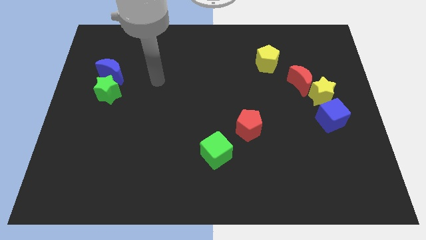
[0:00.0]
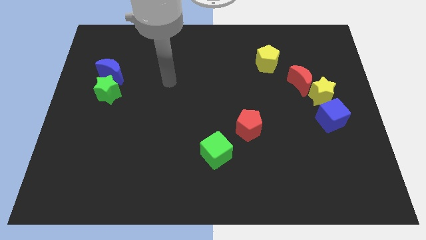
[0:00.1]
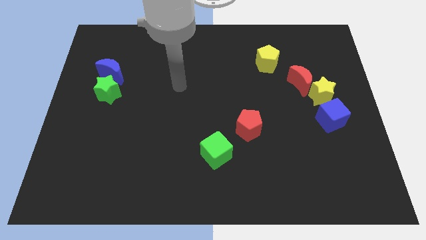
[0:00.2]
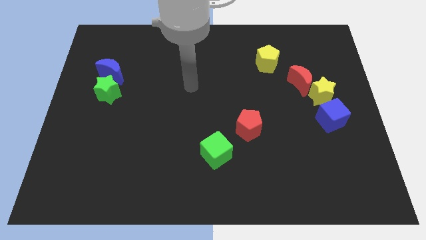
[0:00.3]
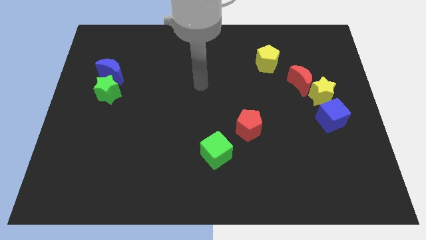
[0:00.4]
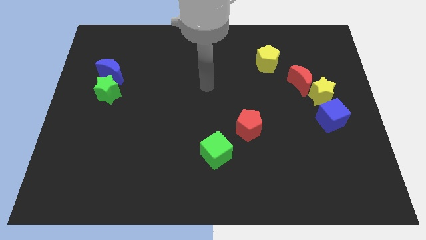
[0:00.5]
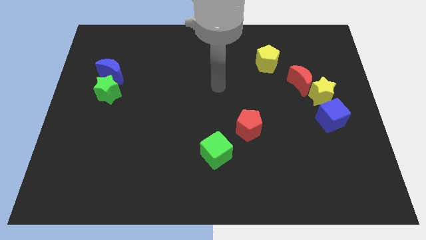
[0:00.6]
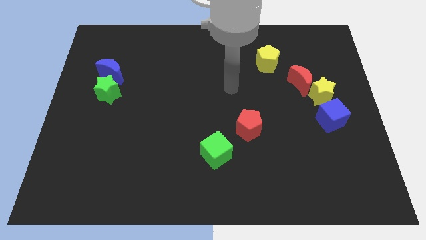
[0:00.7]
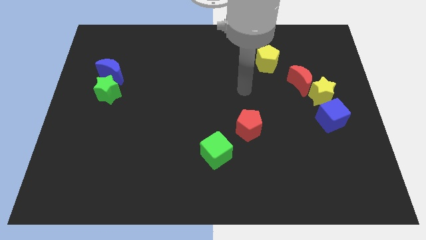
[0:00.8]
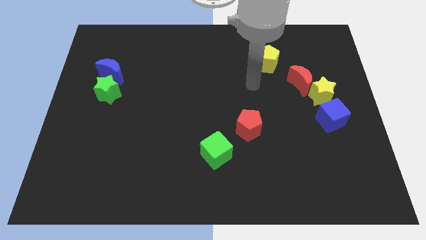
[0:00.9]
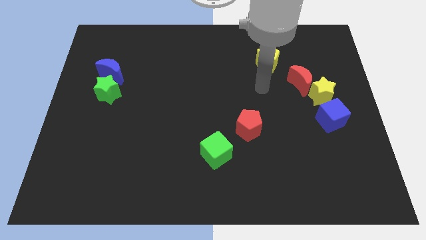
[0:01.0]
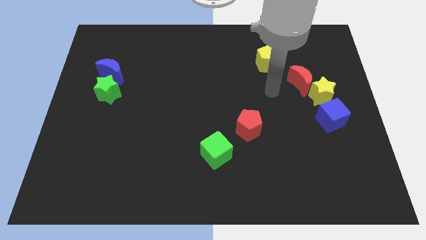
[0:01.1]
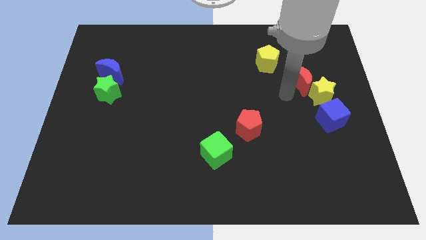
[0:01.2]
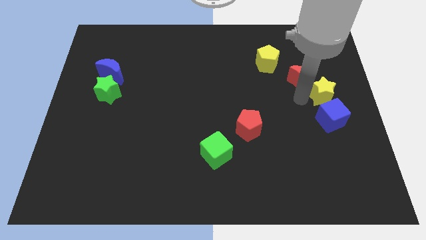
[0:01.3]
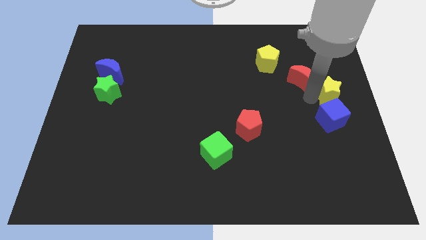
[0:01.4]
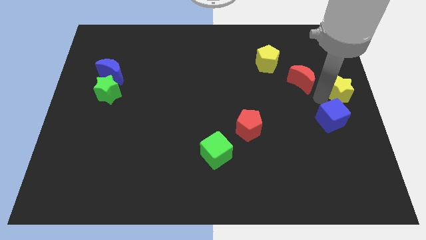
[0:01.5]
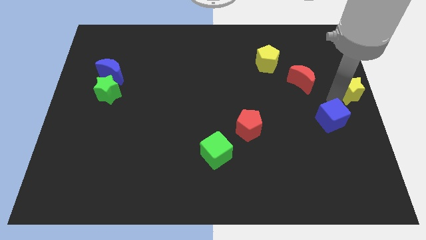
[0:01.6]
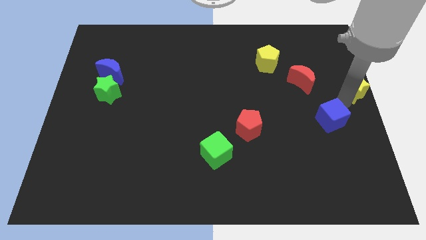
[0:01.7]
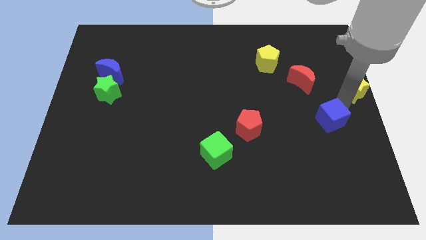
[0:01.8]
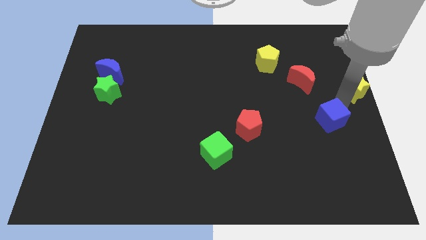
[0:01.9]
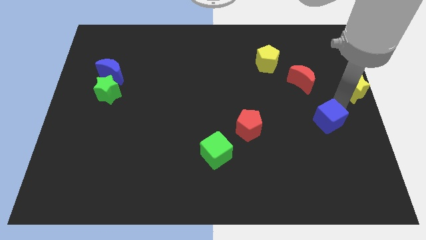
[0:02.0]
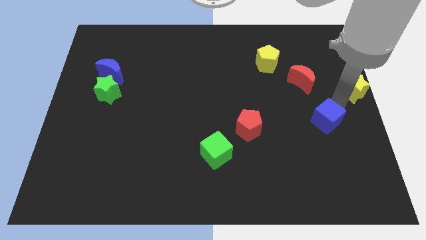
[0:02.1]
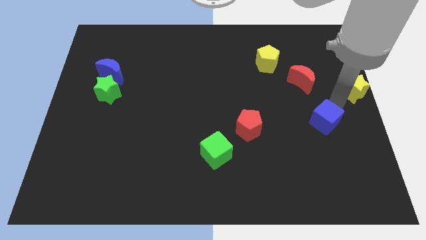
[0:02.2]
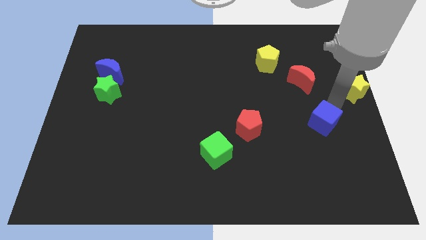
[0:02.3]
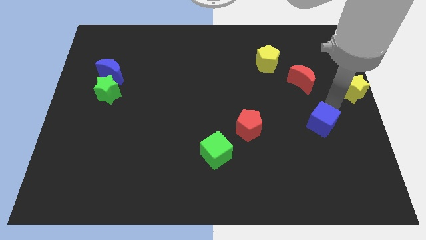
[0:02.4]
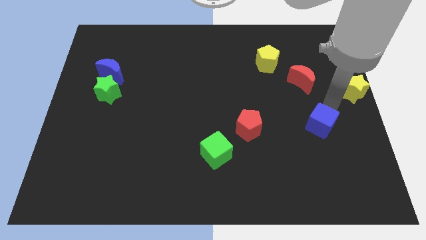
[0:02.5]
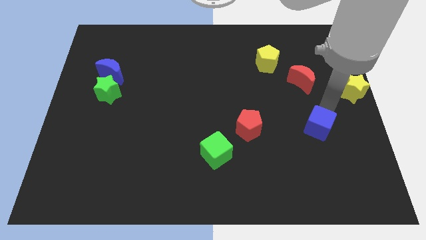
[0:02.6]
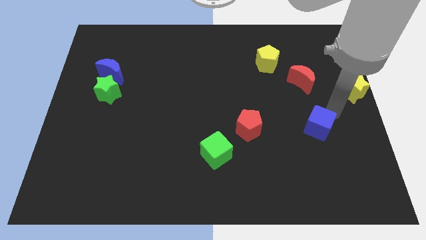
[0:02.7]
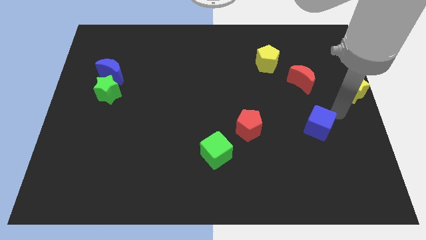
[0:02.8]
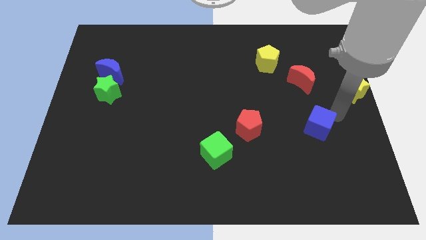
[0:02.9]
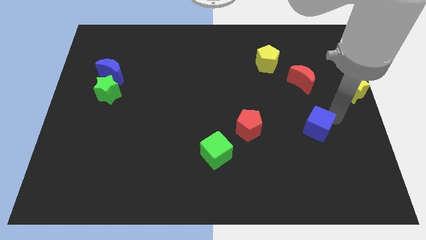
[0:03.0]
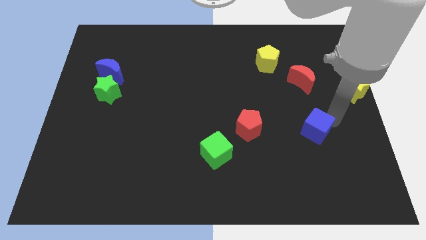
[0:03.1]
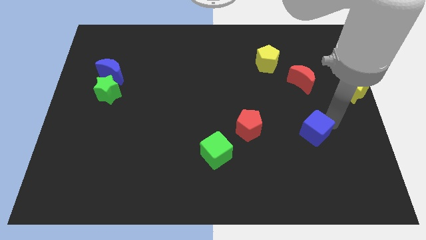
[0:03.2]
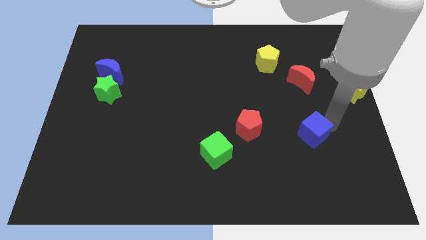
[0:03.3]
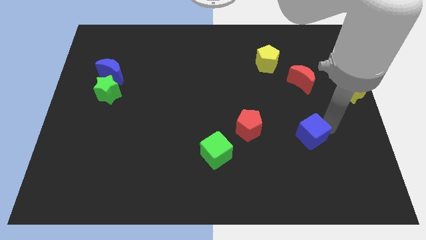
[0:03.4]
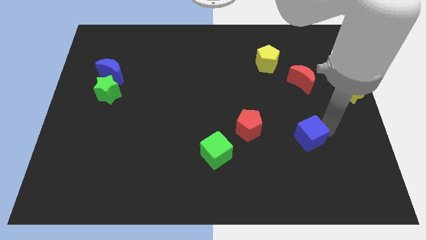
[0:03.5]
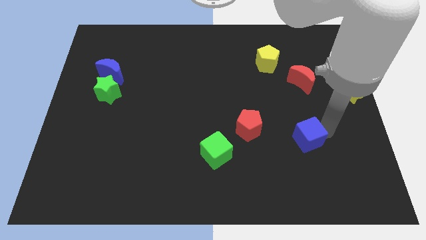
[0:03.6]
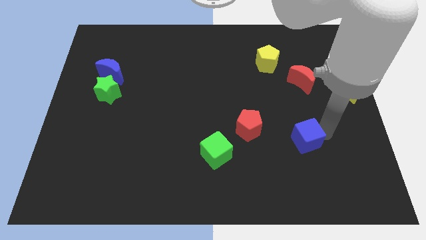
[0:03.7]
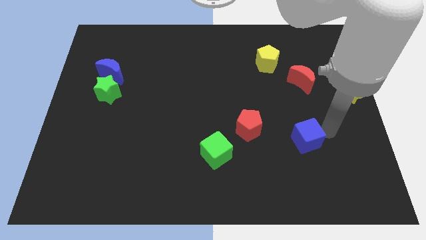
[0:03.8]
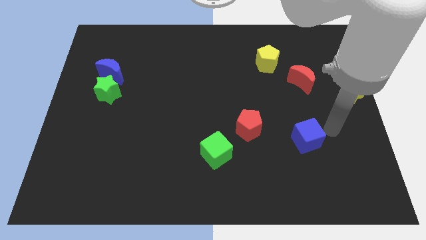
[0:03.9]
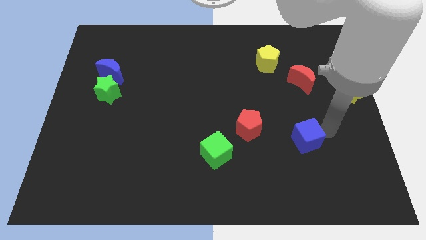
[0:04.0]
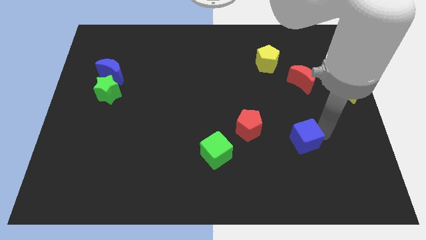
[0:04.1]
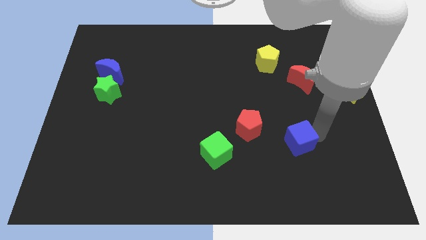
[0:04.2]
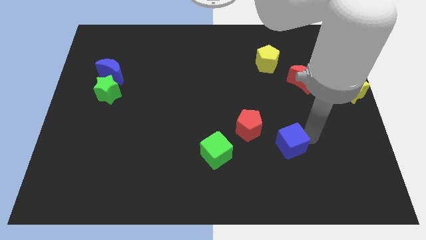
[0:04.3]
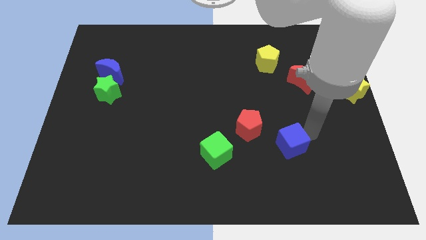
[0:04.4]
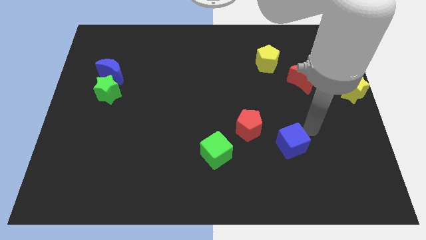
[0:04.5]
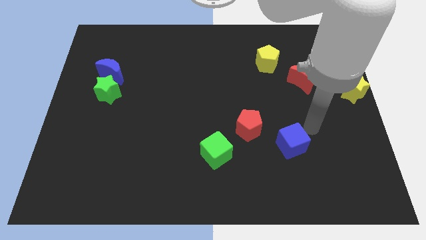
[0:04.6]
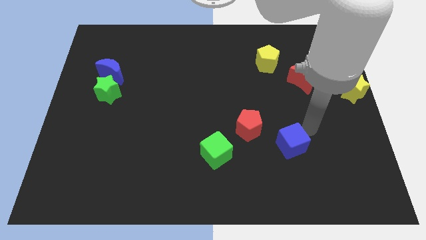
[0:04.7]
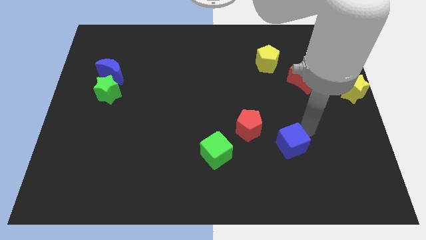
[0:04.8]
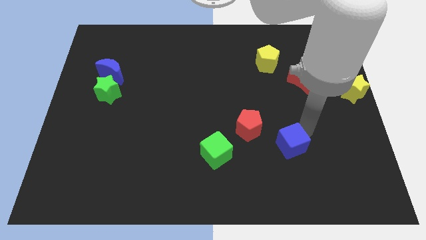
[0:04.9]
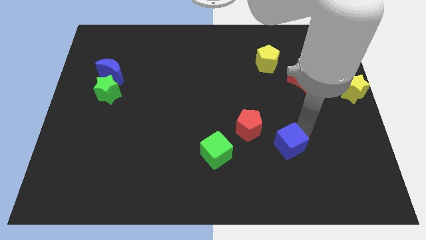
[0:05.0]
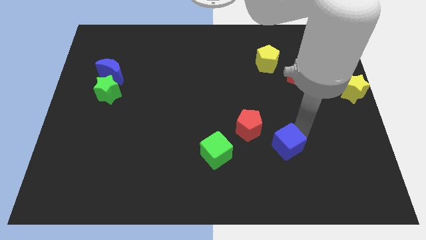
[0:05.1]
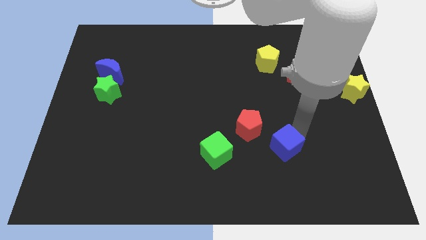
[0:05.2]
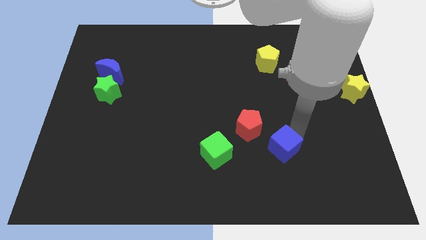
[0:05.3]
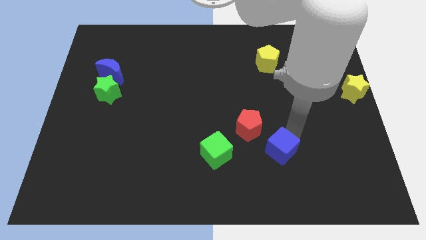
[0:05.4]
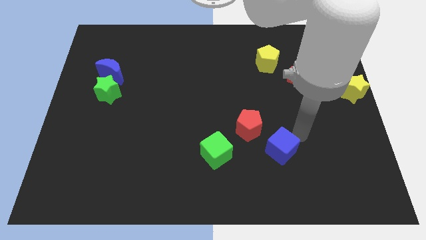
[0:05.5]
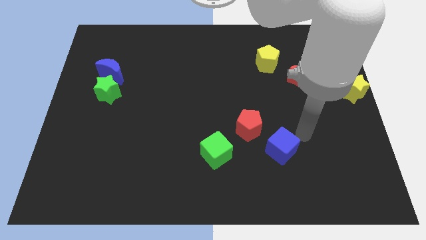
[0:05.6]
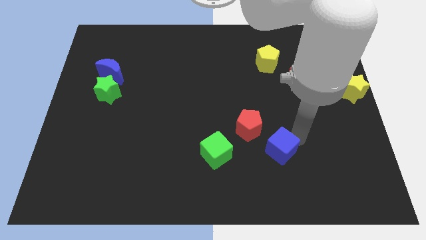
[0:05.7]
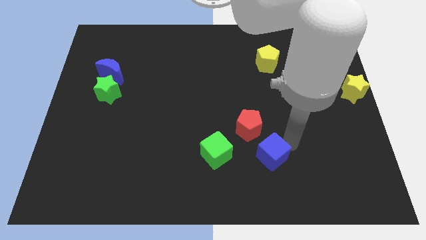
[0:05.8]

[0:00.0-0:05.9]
put the blue cube below the red pentagon

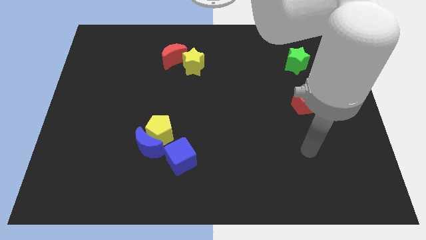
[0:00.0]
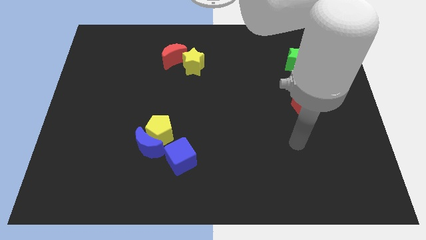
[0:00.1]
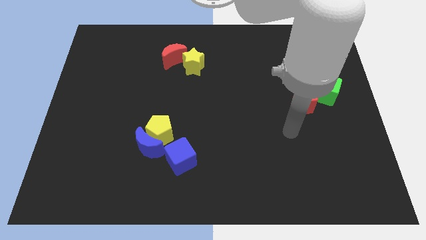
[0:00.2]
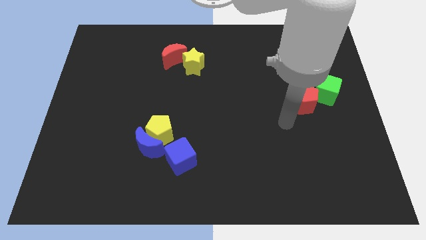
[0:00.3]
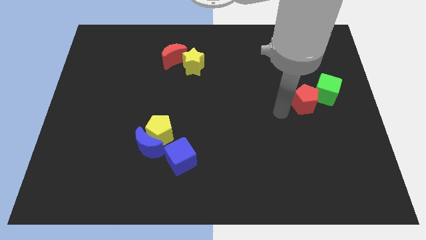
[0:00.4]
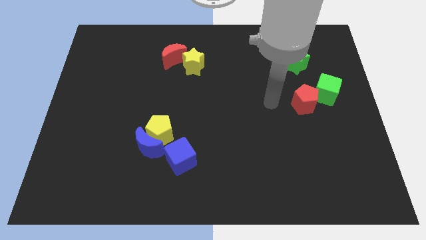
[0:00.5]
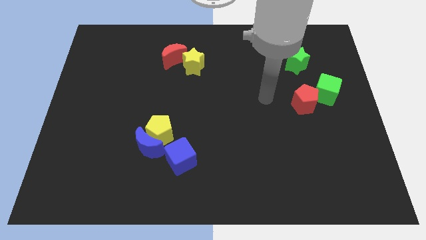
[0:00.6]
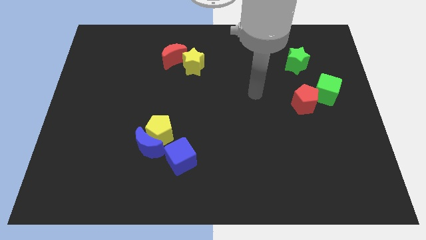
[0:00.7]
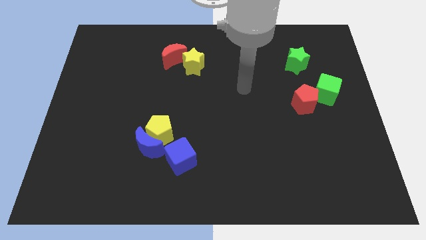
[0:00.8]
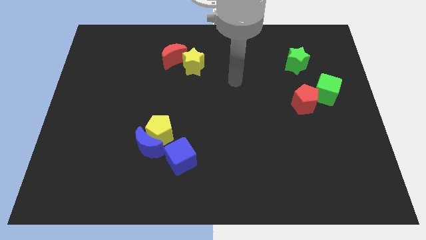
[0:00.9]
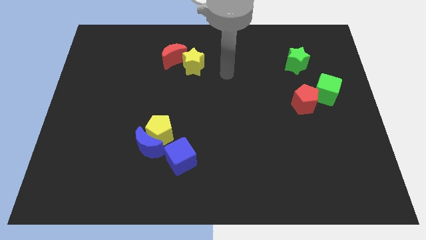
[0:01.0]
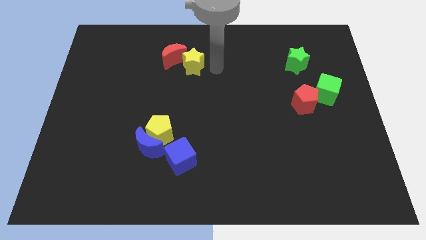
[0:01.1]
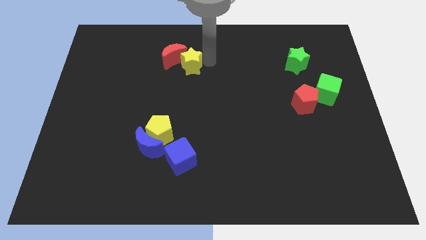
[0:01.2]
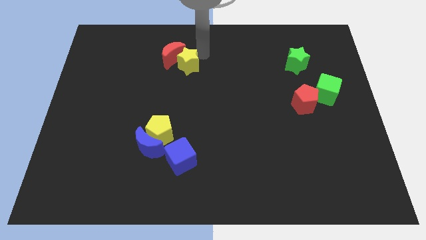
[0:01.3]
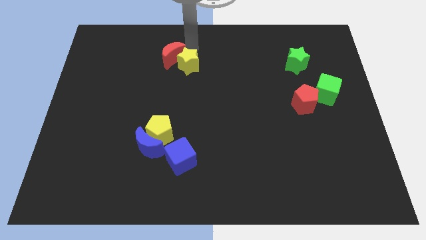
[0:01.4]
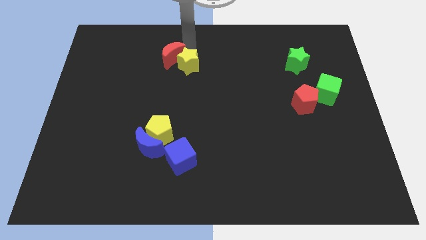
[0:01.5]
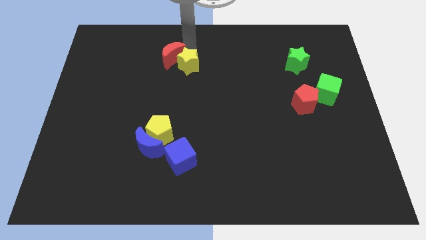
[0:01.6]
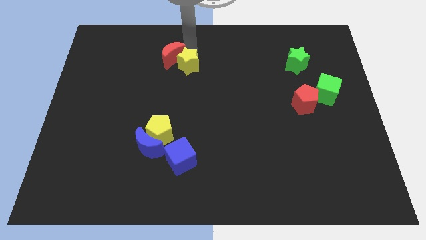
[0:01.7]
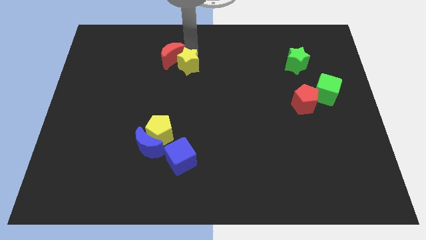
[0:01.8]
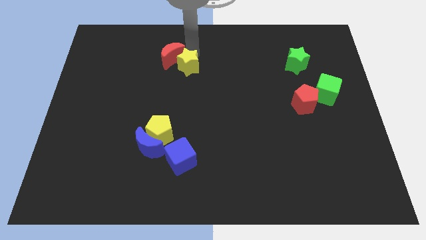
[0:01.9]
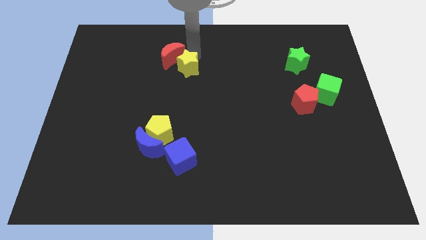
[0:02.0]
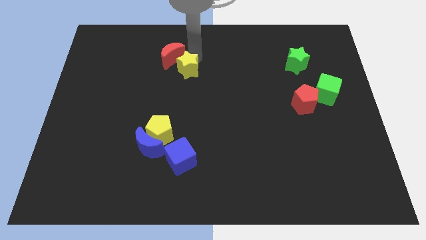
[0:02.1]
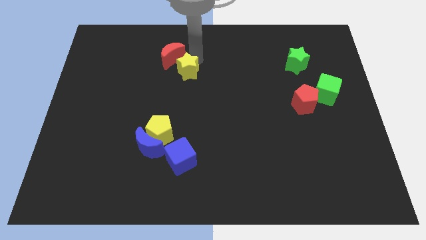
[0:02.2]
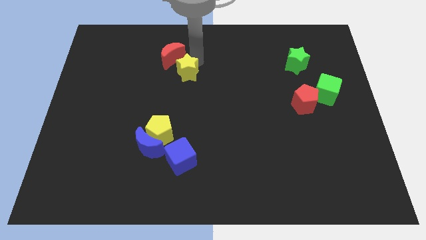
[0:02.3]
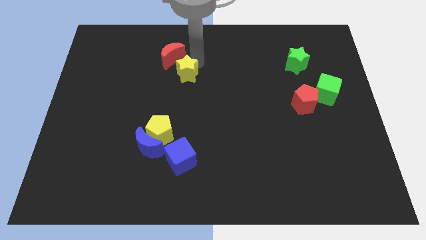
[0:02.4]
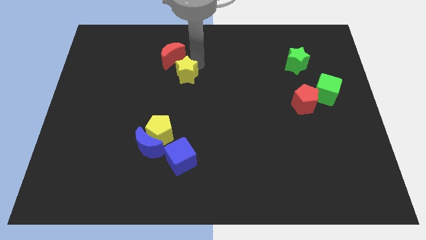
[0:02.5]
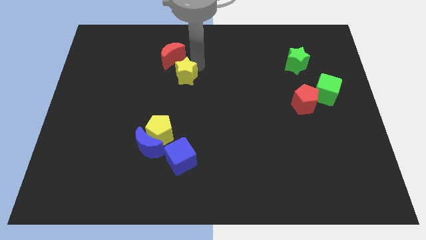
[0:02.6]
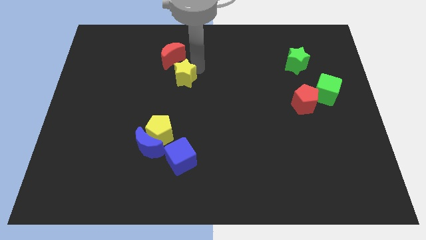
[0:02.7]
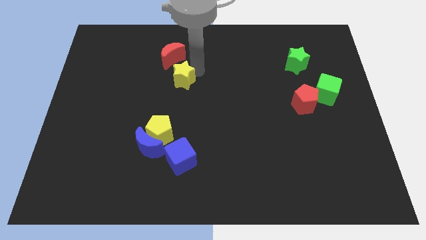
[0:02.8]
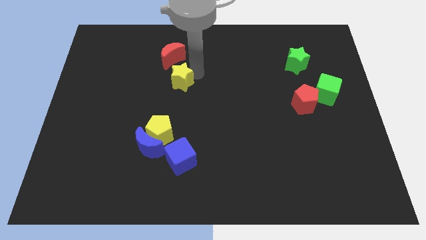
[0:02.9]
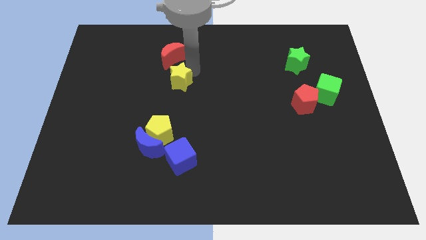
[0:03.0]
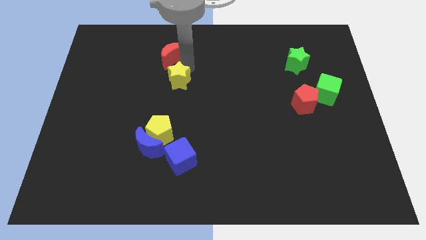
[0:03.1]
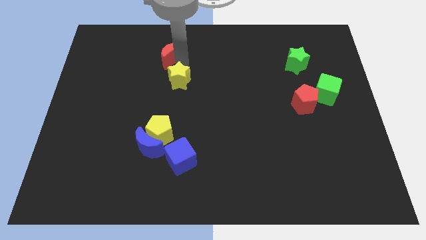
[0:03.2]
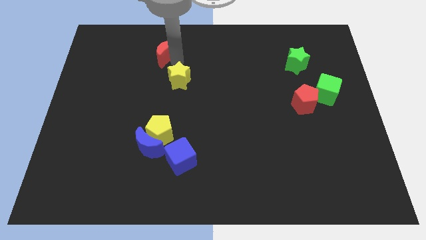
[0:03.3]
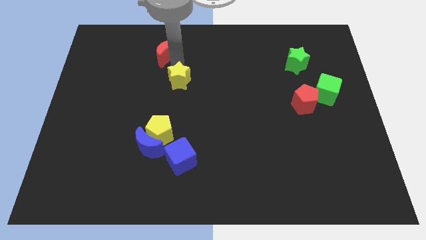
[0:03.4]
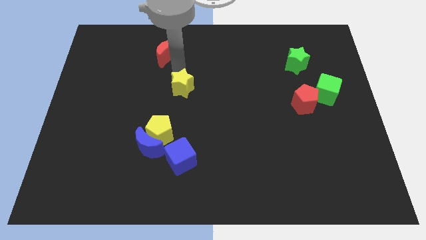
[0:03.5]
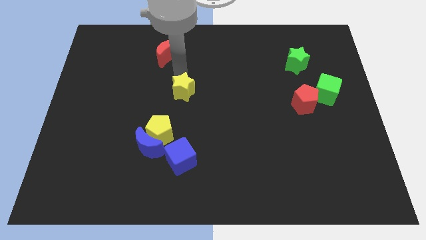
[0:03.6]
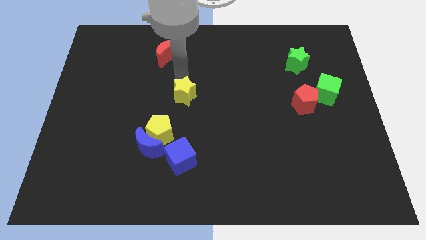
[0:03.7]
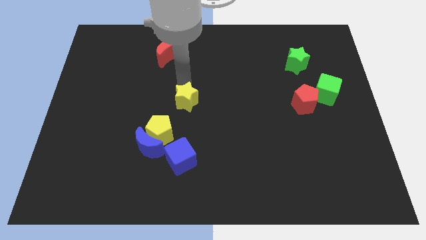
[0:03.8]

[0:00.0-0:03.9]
push the yellow star to the top side of the blue cube
